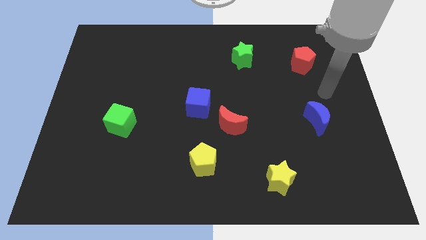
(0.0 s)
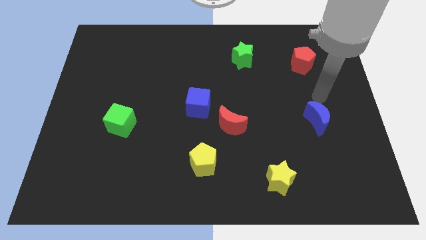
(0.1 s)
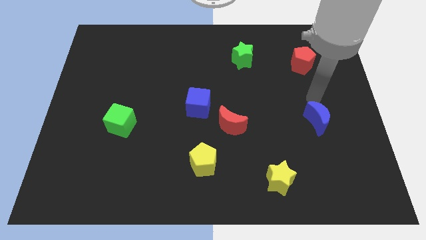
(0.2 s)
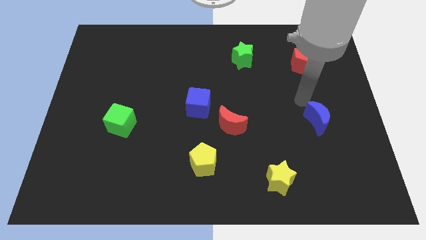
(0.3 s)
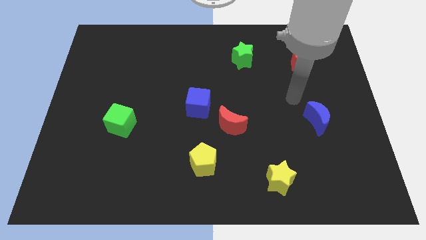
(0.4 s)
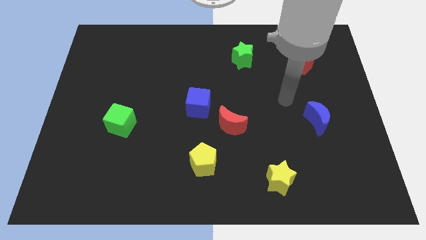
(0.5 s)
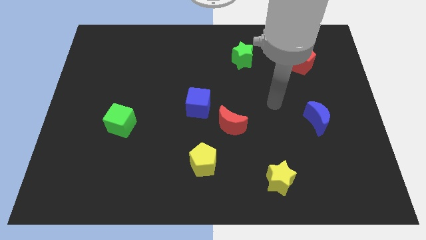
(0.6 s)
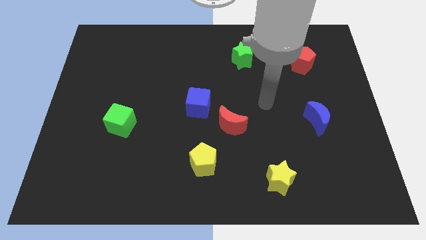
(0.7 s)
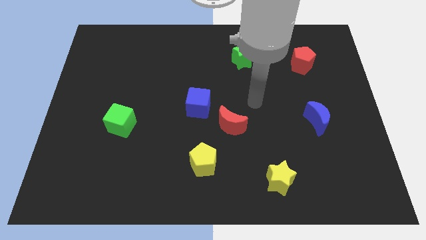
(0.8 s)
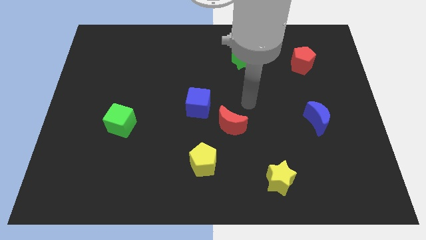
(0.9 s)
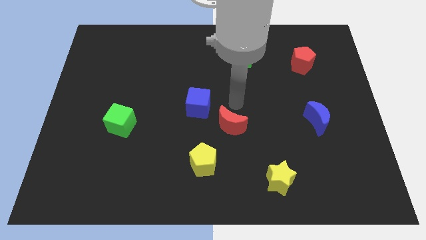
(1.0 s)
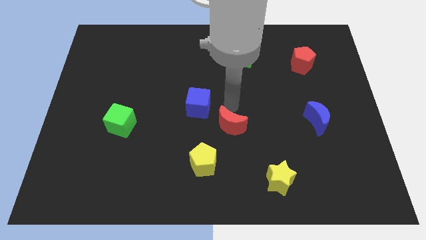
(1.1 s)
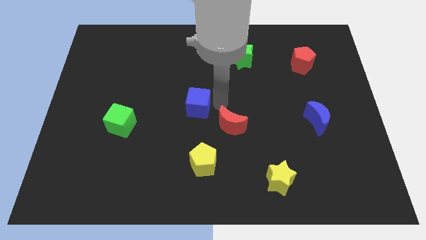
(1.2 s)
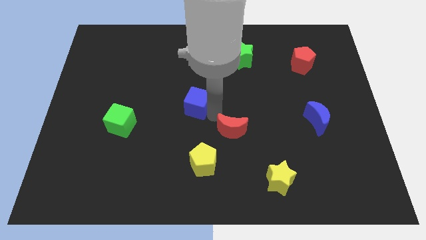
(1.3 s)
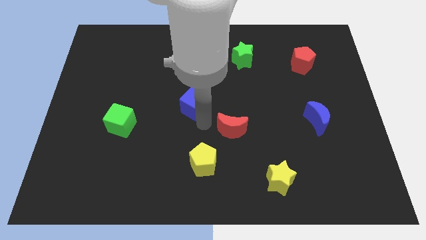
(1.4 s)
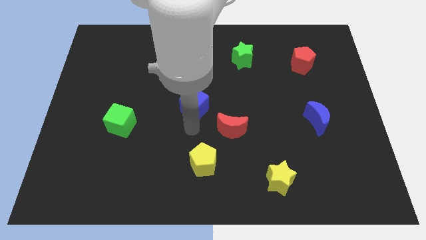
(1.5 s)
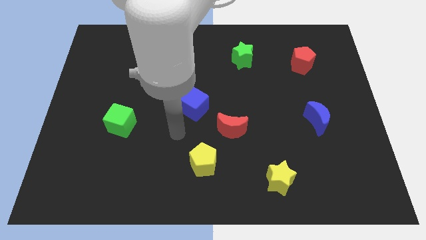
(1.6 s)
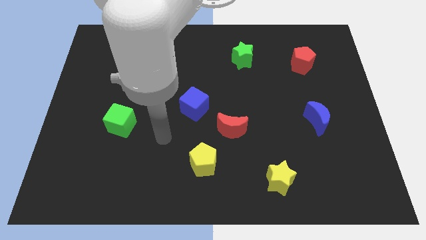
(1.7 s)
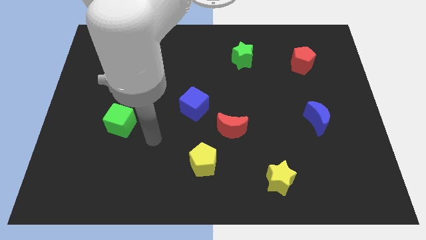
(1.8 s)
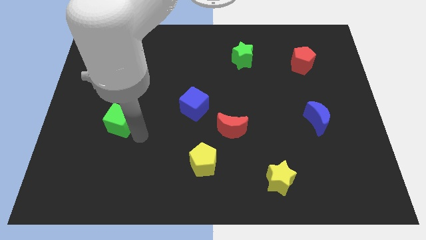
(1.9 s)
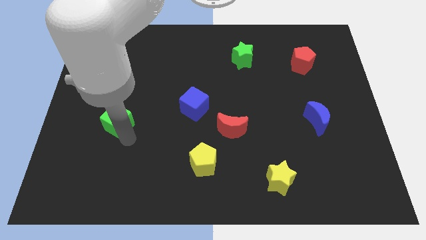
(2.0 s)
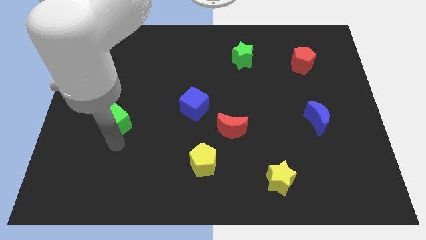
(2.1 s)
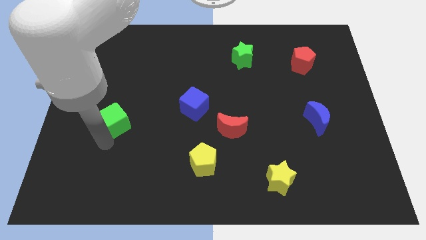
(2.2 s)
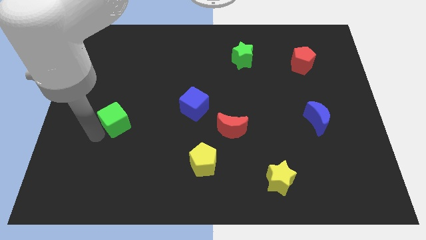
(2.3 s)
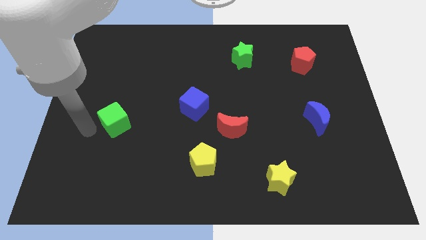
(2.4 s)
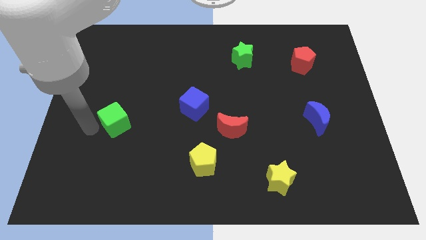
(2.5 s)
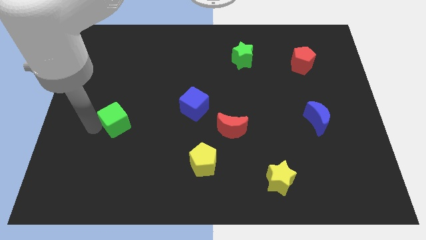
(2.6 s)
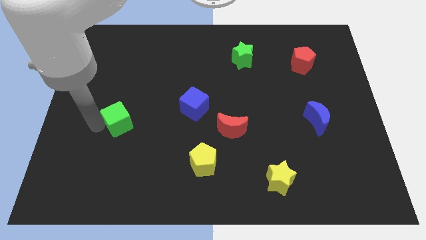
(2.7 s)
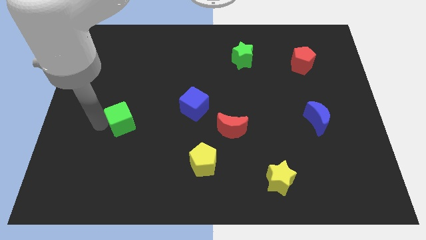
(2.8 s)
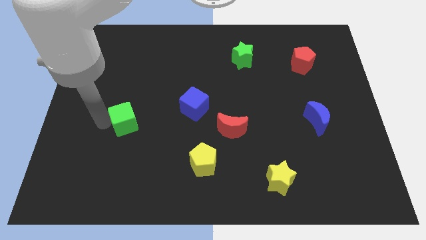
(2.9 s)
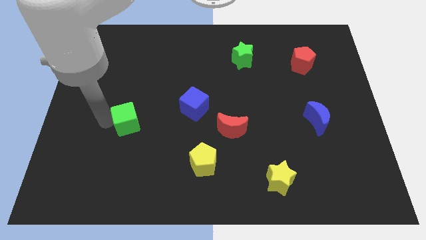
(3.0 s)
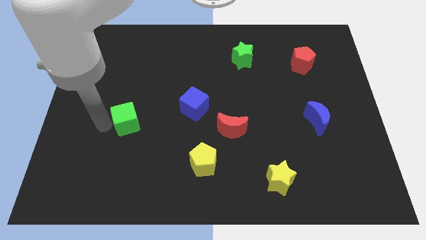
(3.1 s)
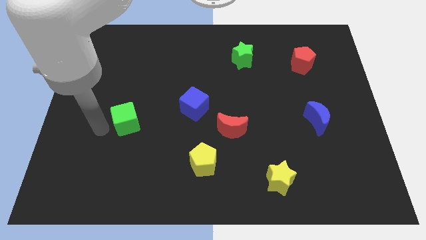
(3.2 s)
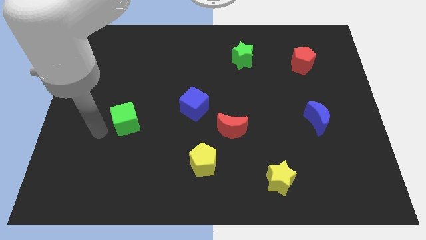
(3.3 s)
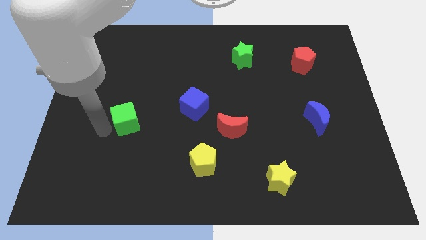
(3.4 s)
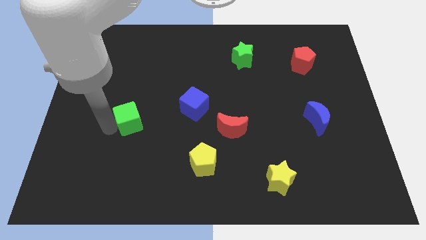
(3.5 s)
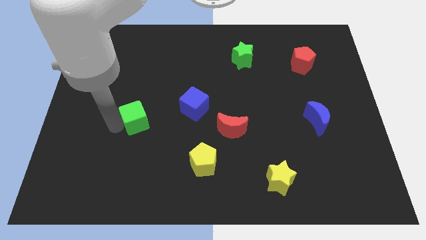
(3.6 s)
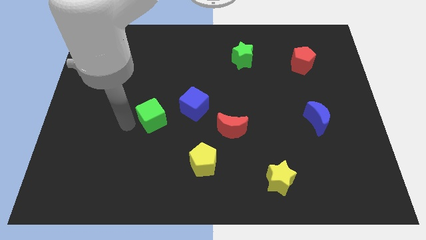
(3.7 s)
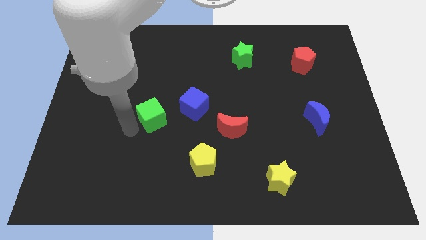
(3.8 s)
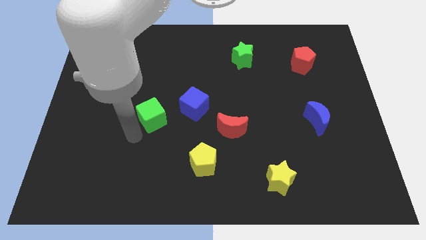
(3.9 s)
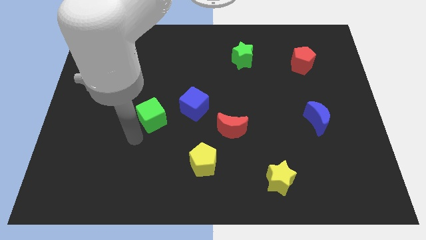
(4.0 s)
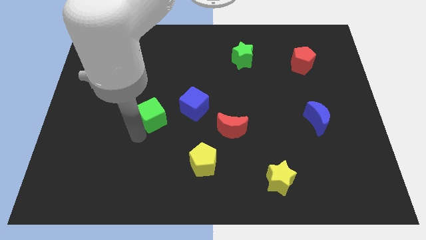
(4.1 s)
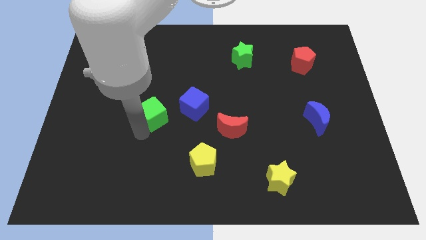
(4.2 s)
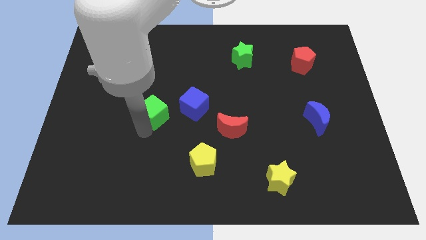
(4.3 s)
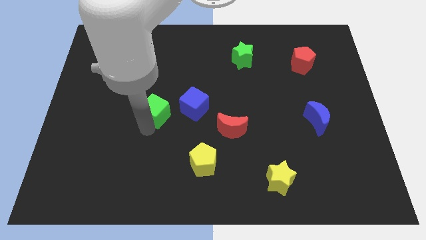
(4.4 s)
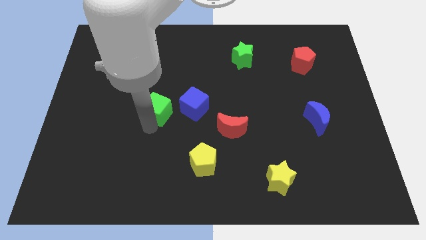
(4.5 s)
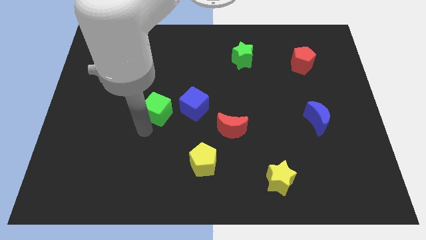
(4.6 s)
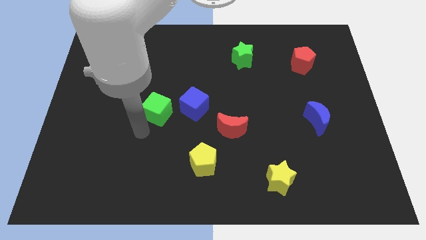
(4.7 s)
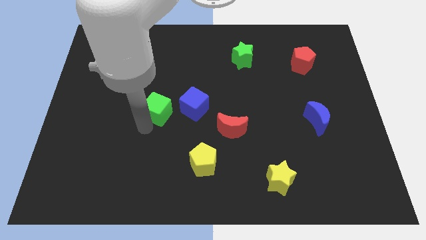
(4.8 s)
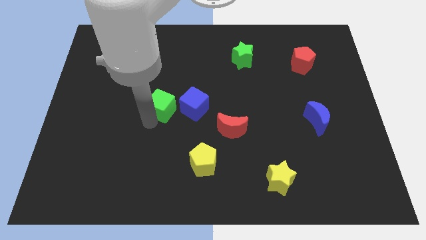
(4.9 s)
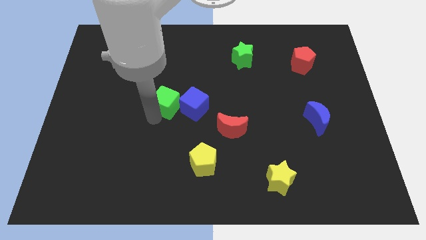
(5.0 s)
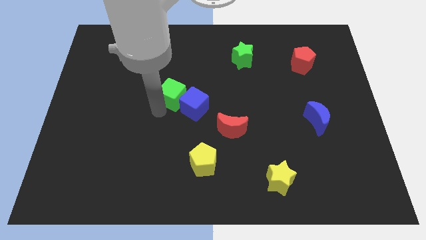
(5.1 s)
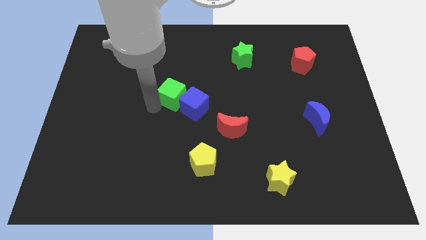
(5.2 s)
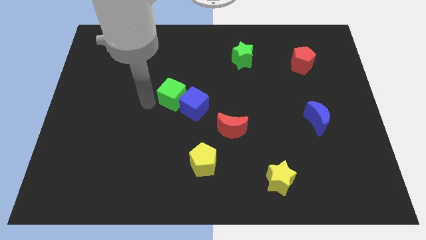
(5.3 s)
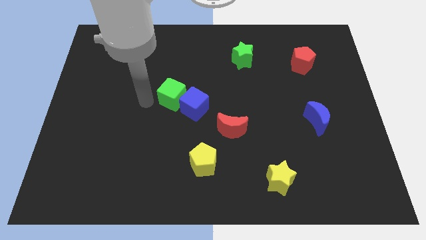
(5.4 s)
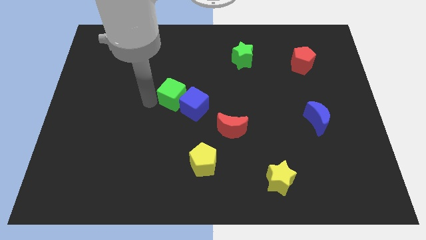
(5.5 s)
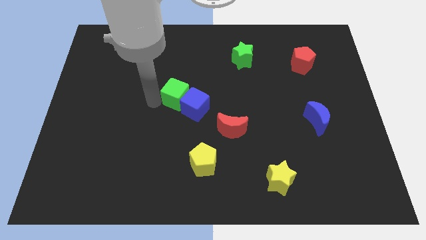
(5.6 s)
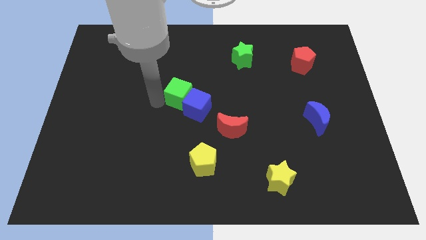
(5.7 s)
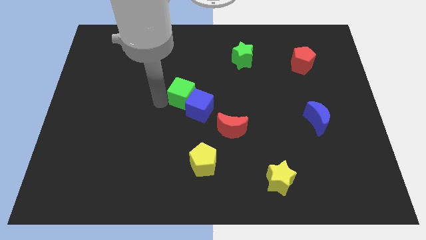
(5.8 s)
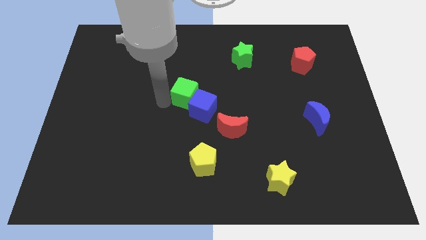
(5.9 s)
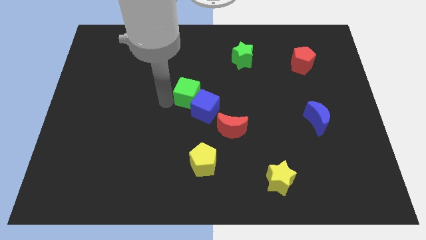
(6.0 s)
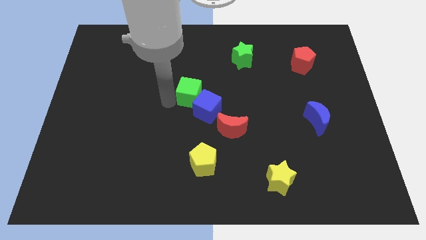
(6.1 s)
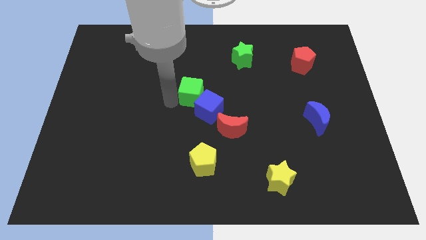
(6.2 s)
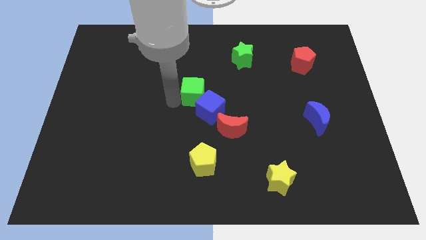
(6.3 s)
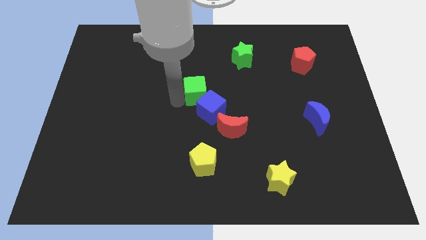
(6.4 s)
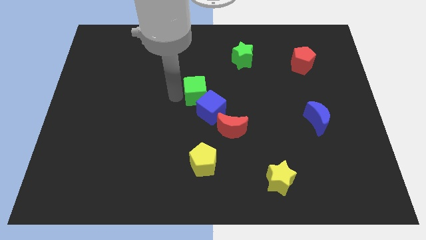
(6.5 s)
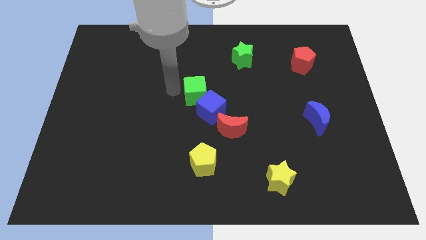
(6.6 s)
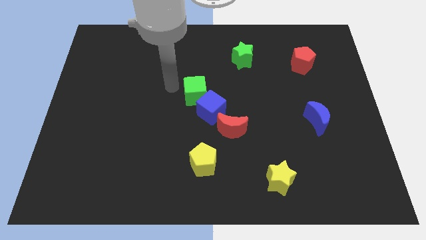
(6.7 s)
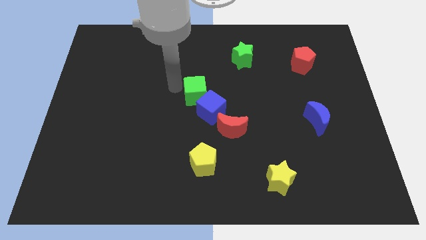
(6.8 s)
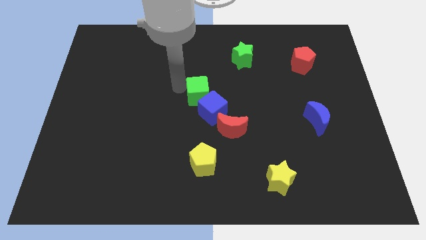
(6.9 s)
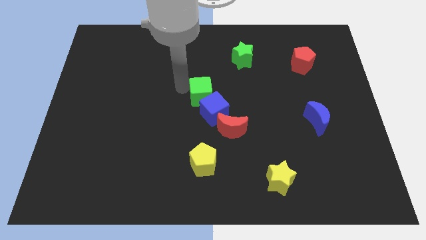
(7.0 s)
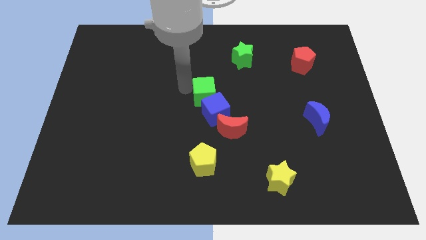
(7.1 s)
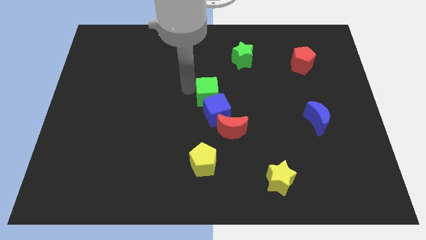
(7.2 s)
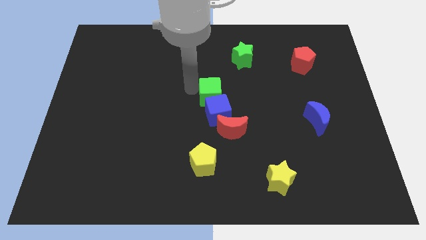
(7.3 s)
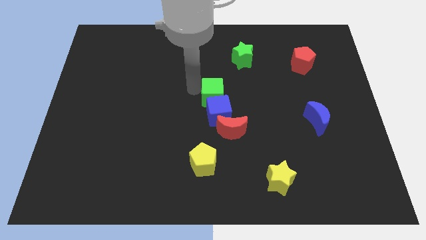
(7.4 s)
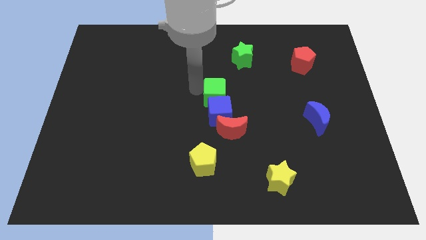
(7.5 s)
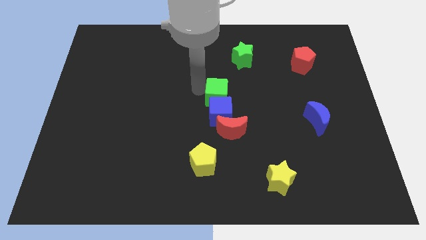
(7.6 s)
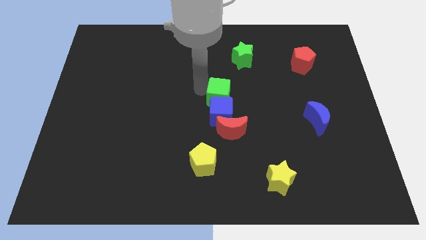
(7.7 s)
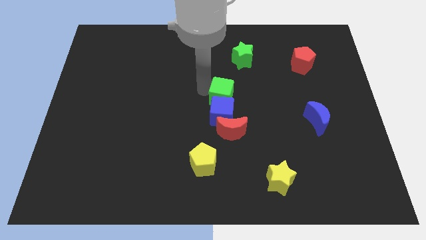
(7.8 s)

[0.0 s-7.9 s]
move the green cube right

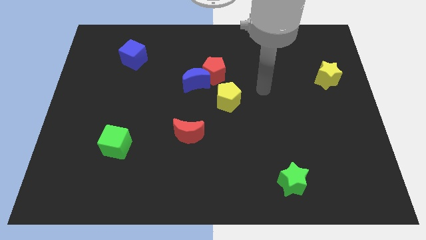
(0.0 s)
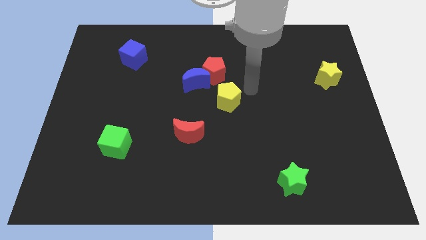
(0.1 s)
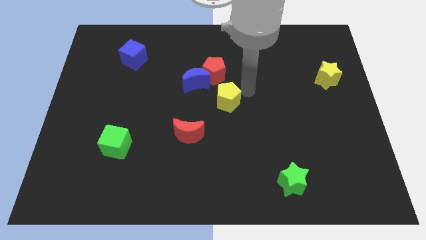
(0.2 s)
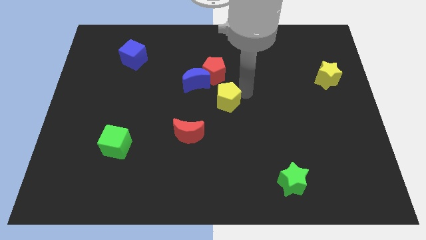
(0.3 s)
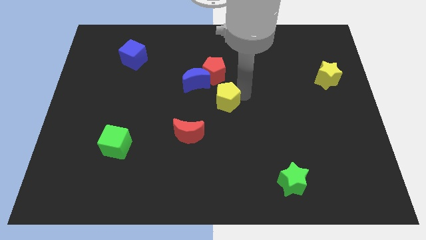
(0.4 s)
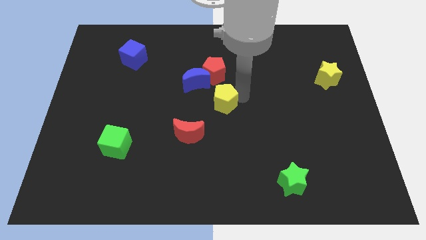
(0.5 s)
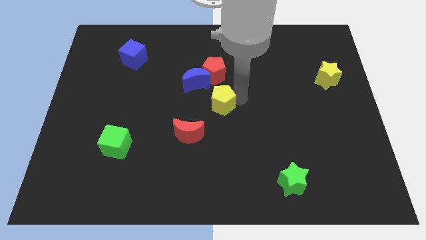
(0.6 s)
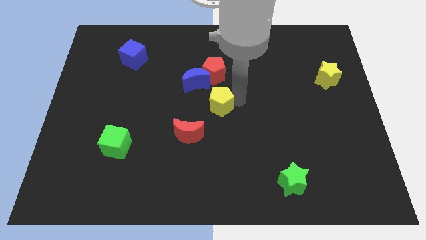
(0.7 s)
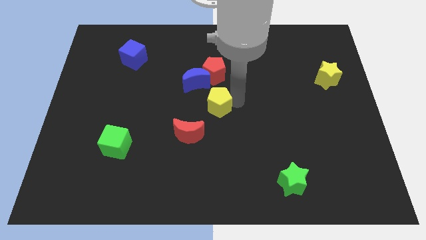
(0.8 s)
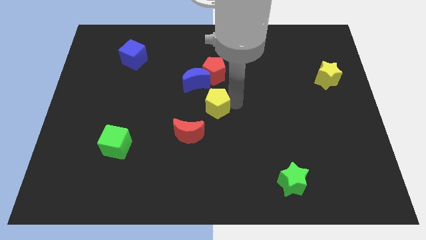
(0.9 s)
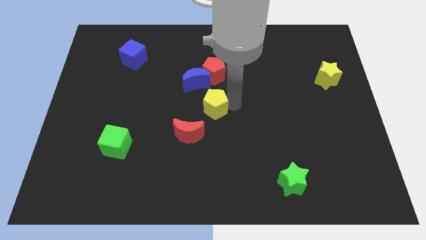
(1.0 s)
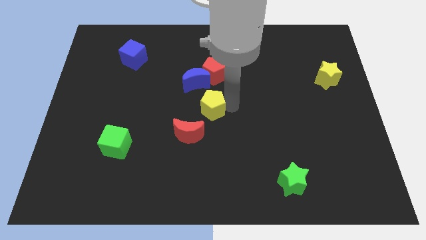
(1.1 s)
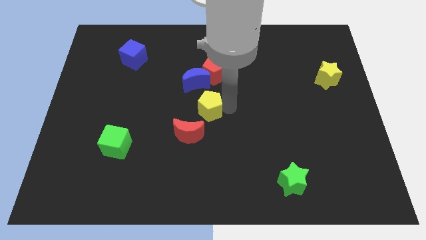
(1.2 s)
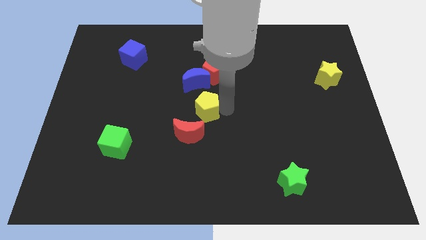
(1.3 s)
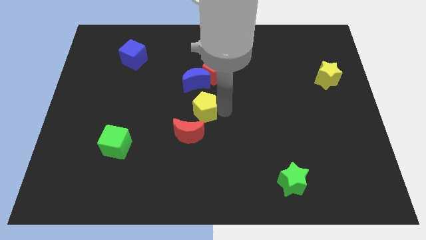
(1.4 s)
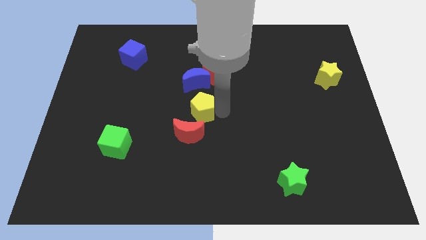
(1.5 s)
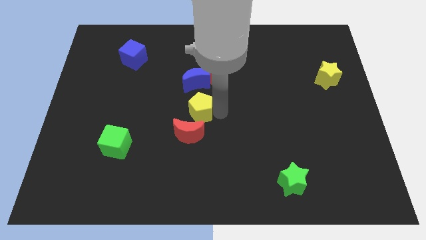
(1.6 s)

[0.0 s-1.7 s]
push the yellow pentagon diagonally down and left a little bit
